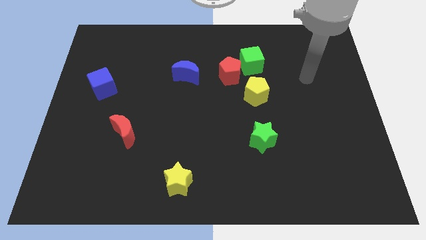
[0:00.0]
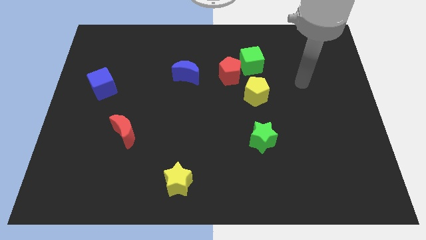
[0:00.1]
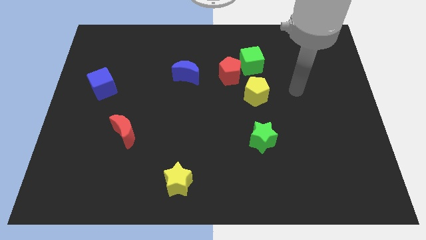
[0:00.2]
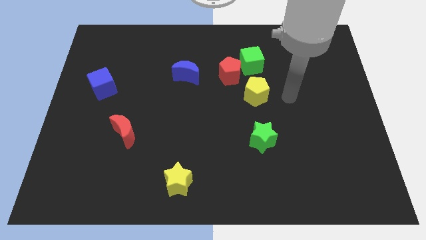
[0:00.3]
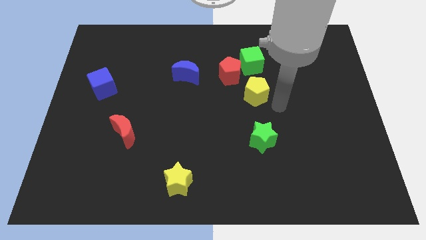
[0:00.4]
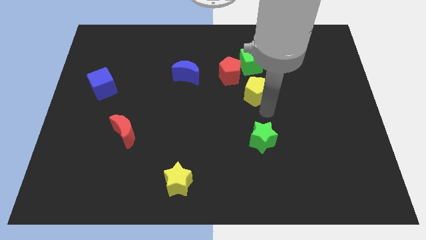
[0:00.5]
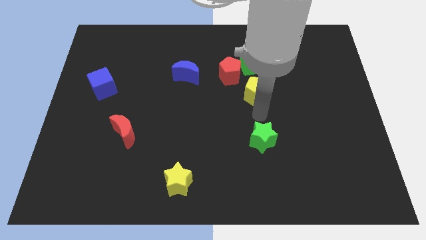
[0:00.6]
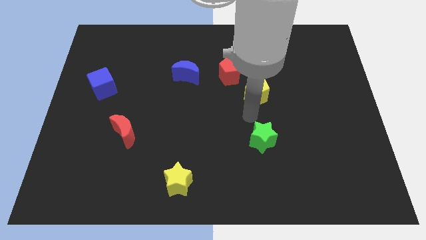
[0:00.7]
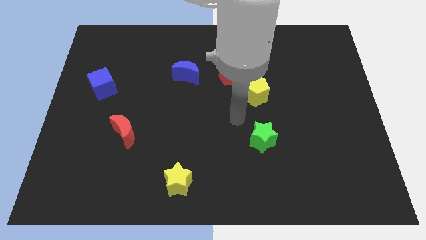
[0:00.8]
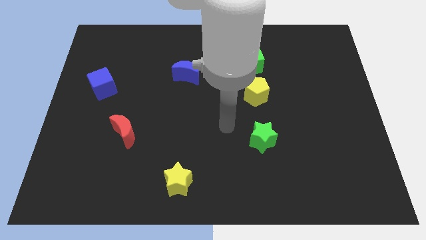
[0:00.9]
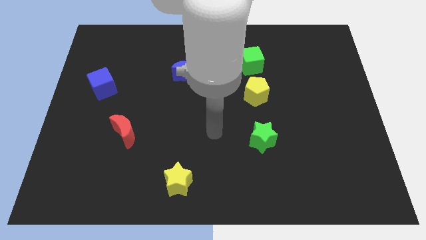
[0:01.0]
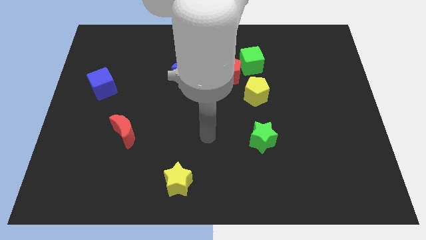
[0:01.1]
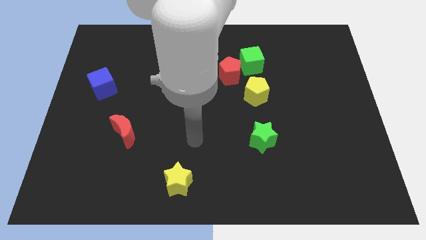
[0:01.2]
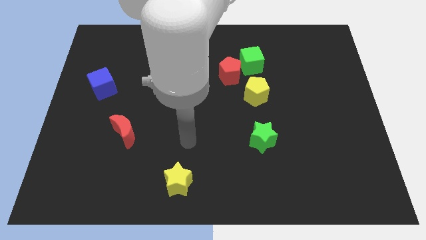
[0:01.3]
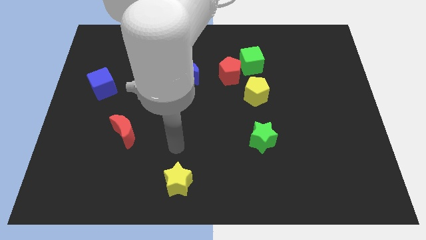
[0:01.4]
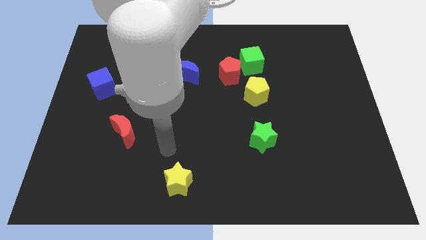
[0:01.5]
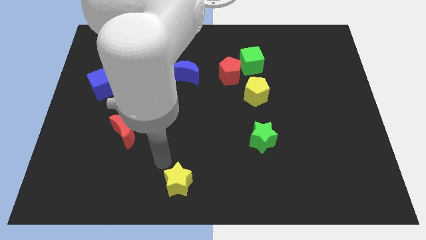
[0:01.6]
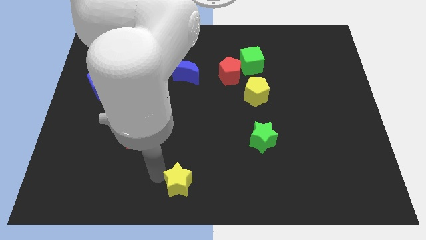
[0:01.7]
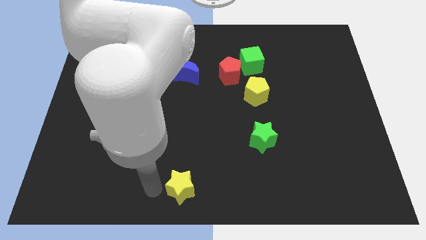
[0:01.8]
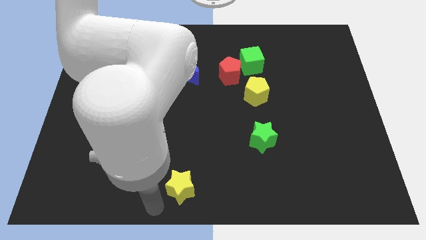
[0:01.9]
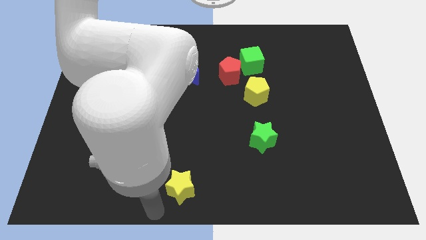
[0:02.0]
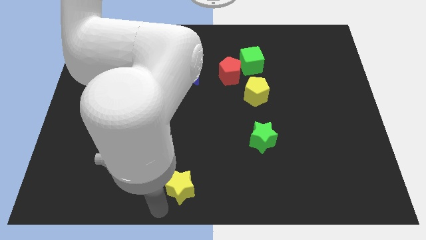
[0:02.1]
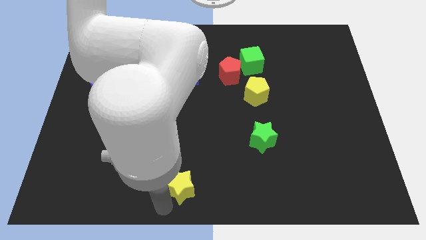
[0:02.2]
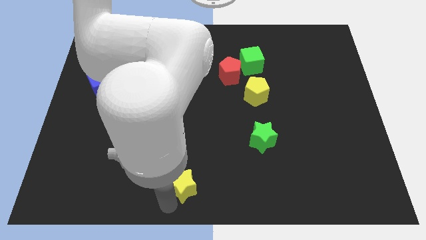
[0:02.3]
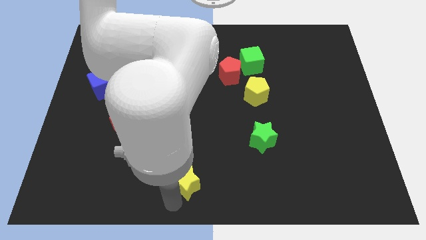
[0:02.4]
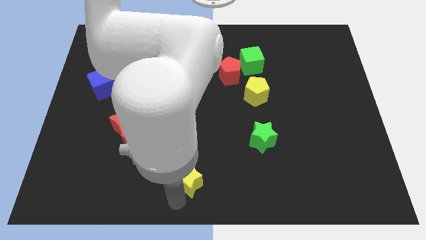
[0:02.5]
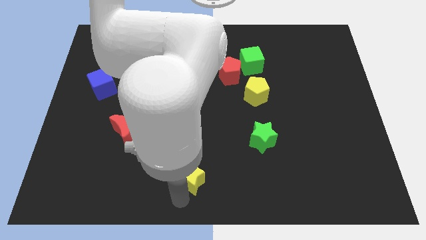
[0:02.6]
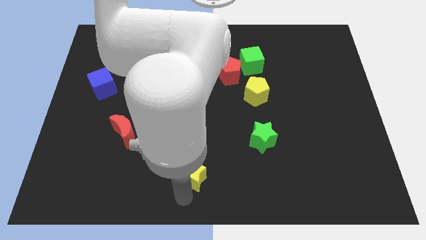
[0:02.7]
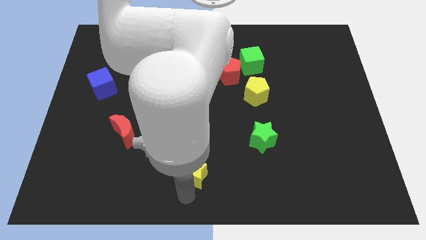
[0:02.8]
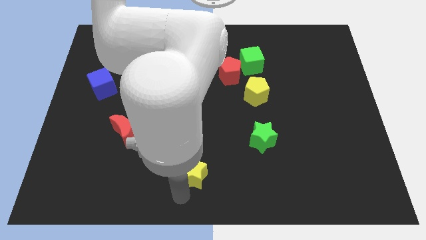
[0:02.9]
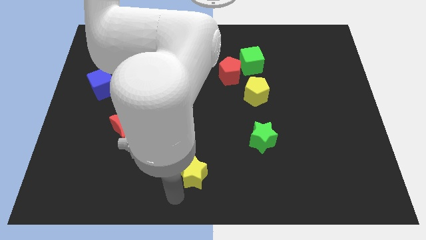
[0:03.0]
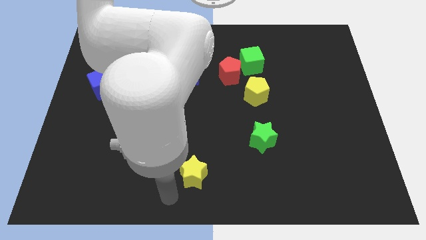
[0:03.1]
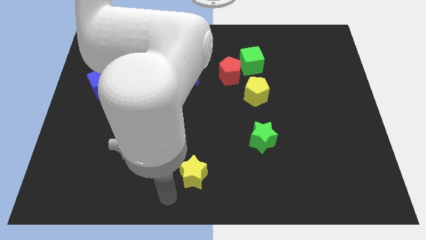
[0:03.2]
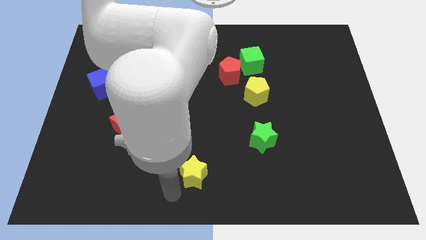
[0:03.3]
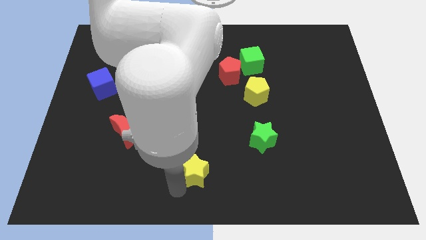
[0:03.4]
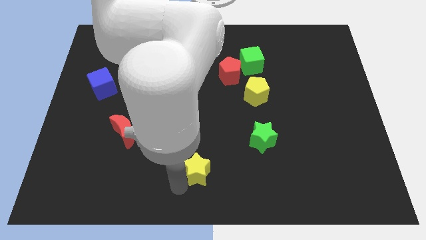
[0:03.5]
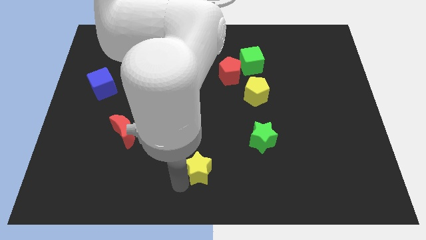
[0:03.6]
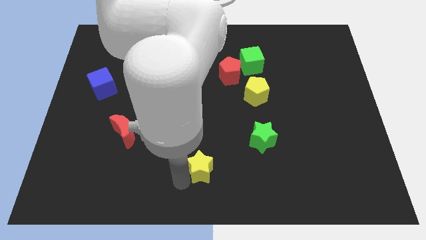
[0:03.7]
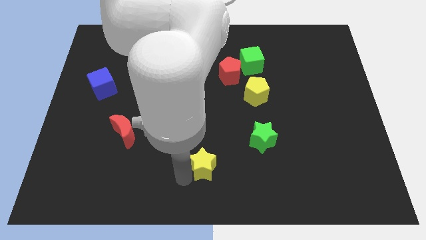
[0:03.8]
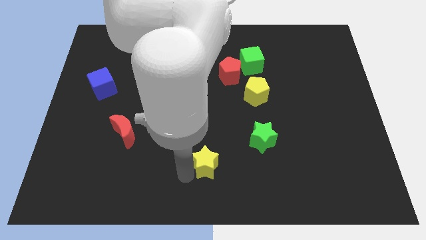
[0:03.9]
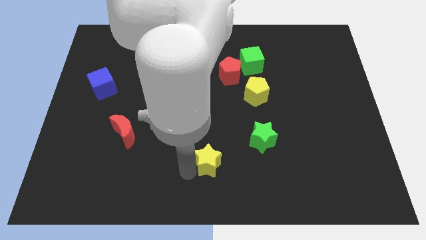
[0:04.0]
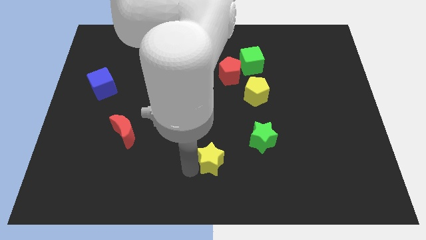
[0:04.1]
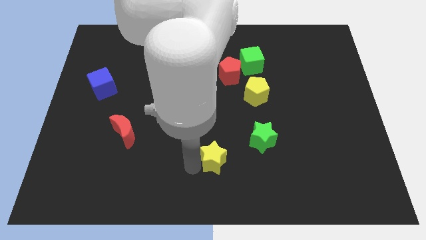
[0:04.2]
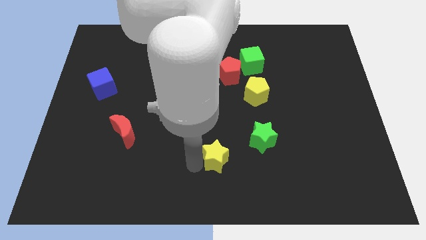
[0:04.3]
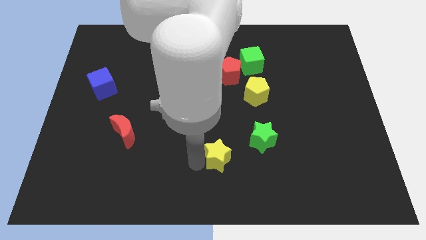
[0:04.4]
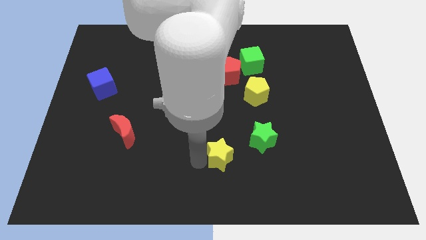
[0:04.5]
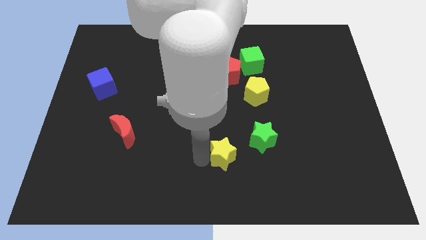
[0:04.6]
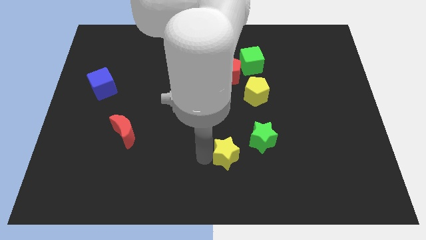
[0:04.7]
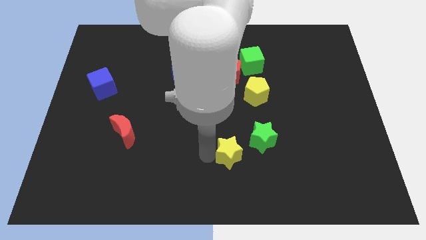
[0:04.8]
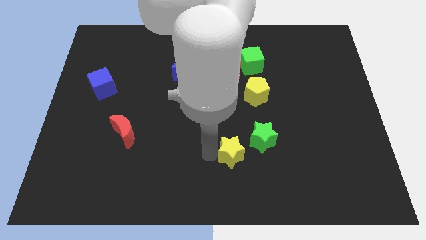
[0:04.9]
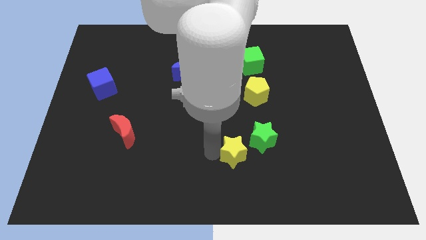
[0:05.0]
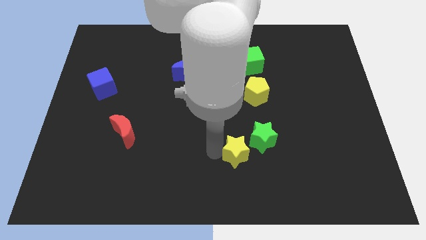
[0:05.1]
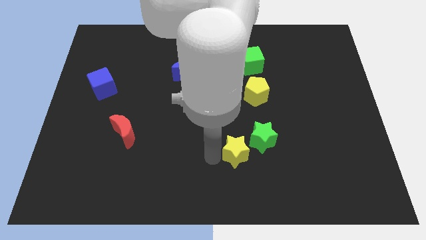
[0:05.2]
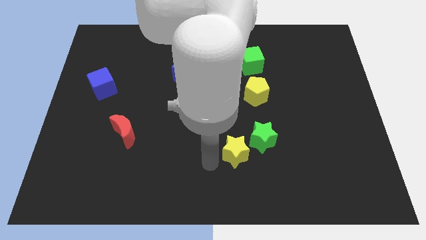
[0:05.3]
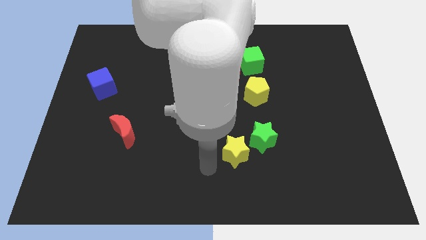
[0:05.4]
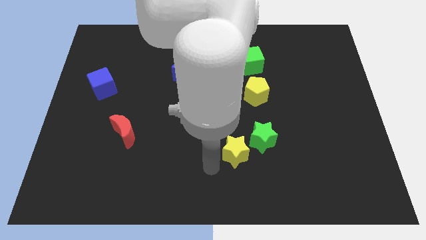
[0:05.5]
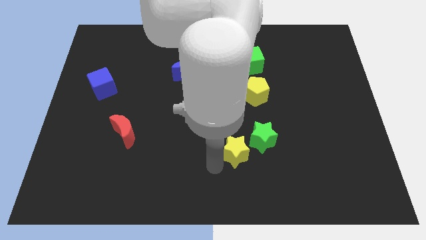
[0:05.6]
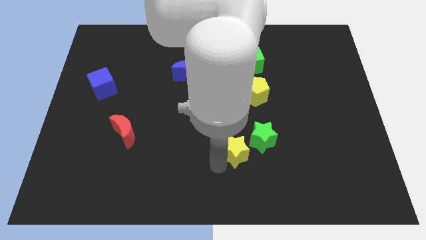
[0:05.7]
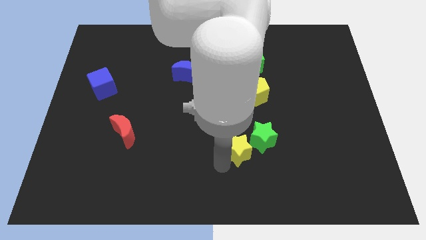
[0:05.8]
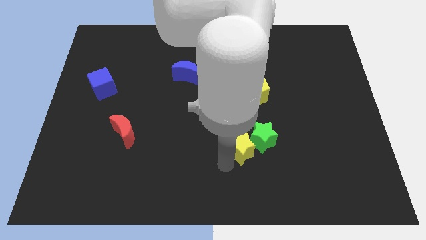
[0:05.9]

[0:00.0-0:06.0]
slide the yellow star close to the green star

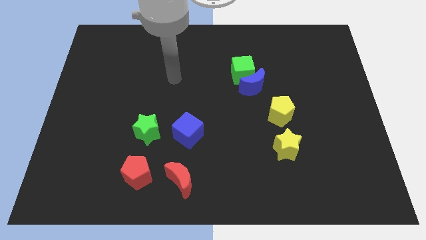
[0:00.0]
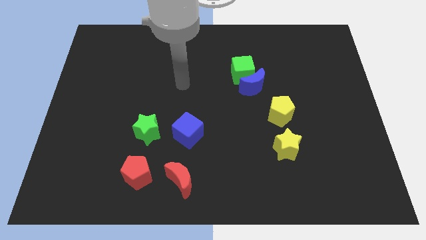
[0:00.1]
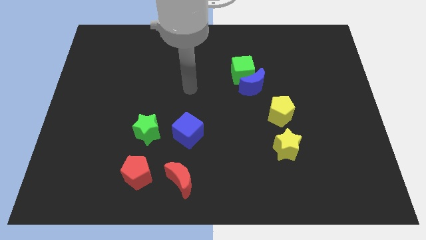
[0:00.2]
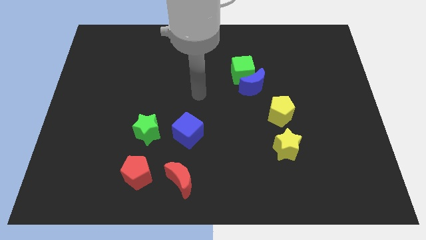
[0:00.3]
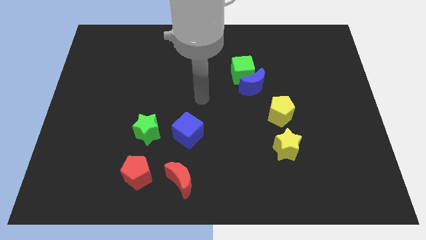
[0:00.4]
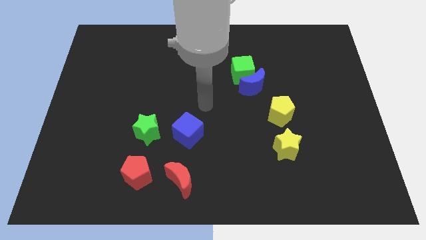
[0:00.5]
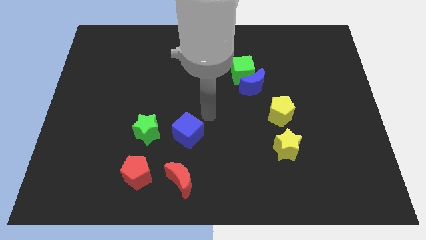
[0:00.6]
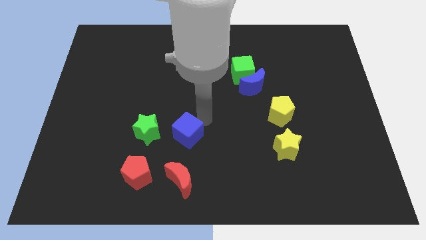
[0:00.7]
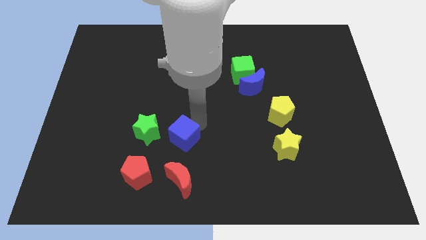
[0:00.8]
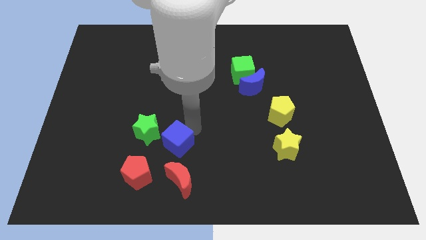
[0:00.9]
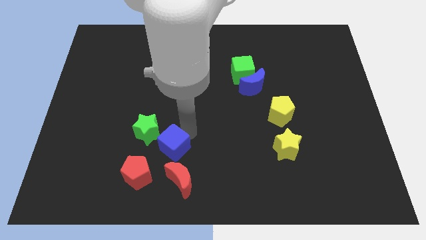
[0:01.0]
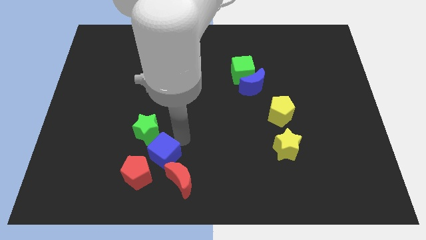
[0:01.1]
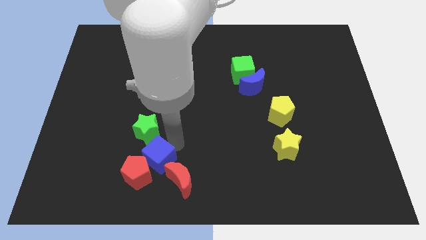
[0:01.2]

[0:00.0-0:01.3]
put the blue cube close to the red pentagon
